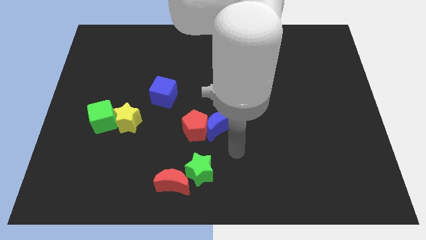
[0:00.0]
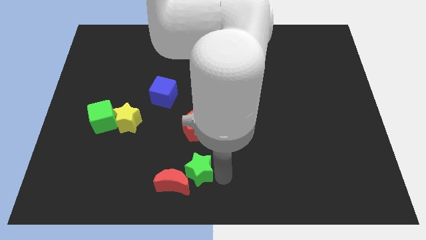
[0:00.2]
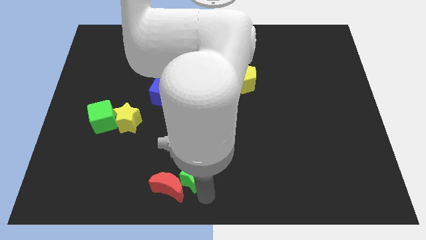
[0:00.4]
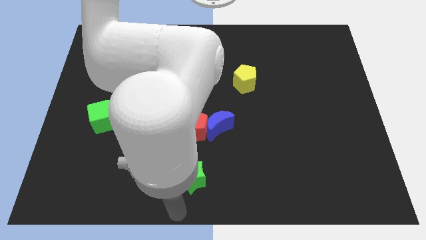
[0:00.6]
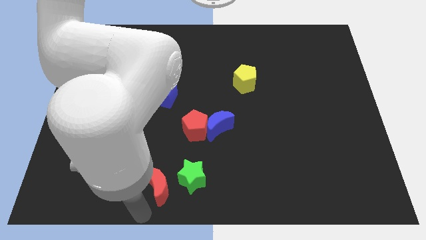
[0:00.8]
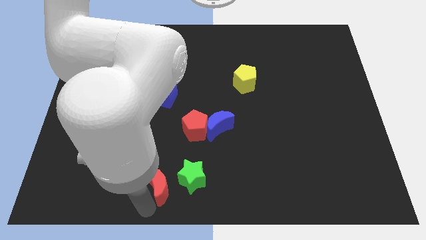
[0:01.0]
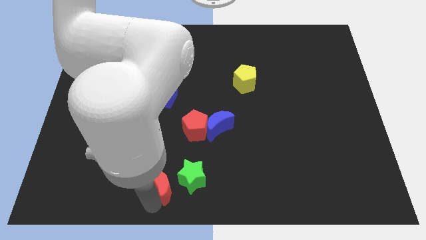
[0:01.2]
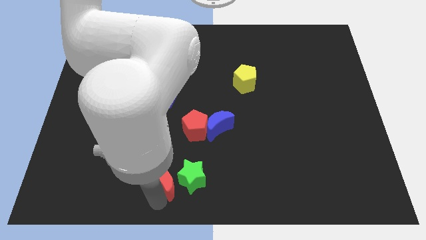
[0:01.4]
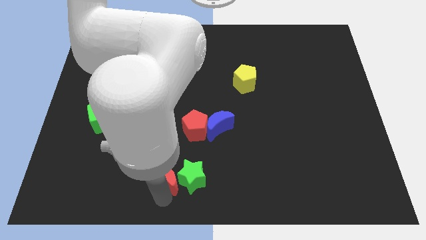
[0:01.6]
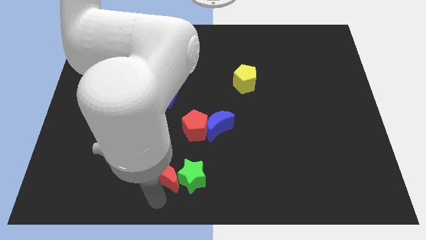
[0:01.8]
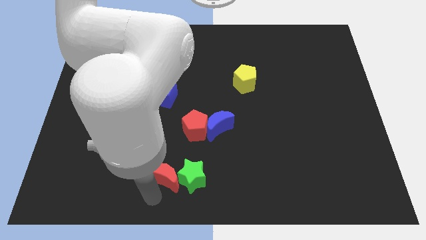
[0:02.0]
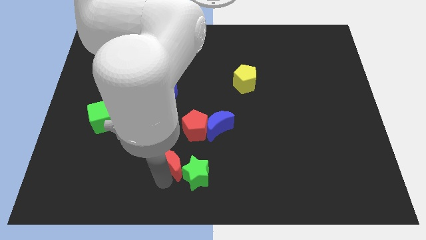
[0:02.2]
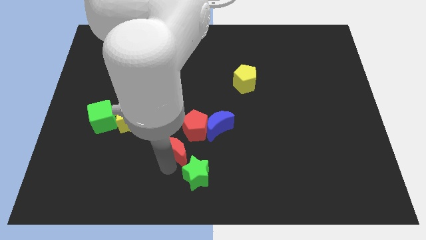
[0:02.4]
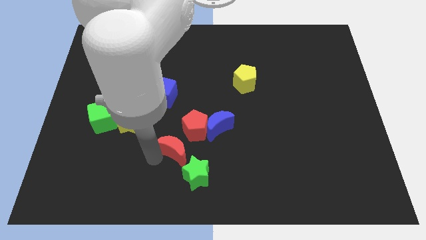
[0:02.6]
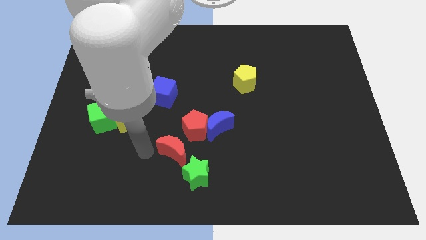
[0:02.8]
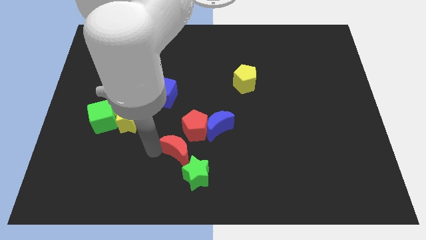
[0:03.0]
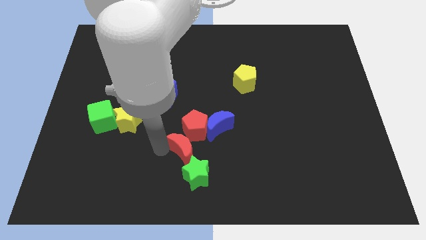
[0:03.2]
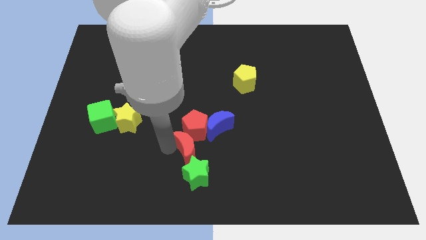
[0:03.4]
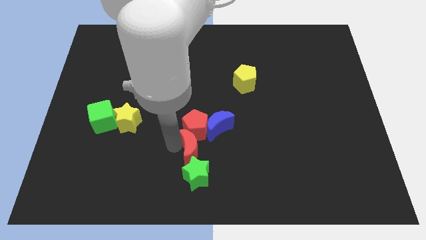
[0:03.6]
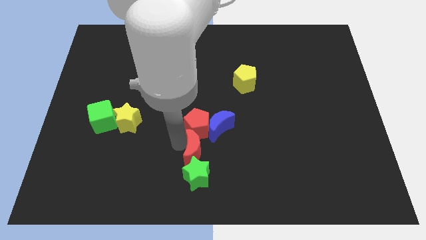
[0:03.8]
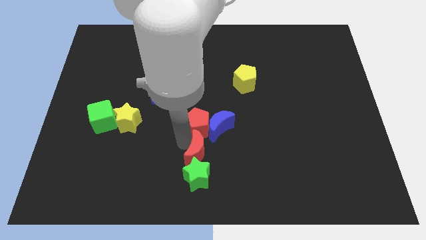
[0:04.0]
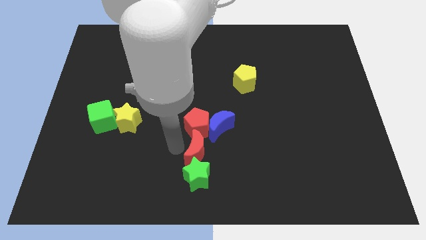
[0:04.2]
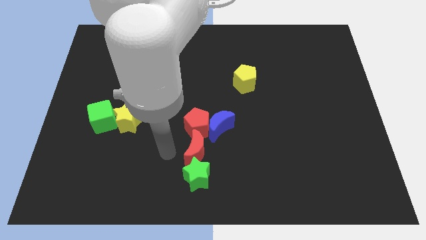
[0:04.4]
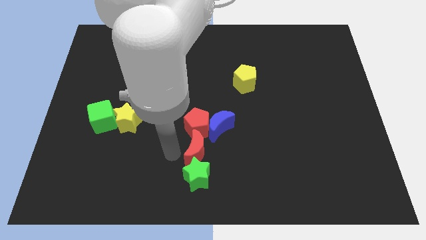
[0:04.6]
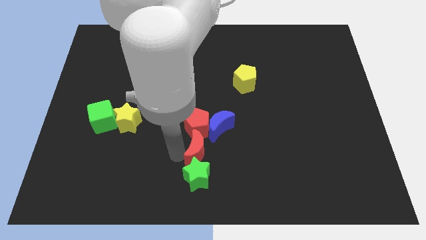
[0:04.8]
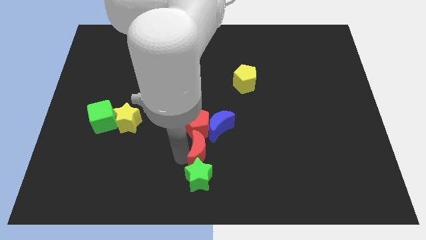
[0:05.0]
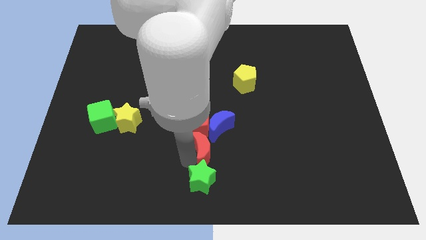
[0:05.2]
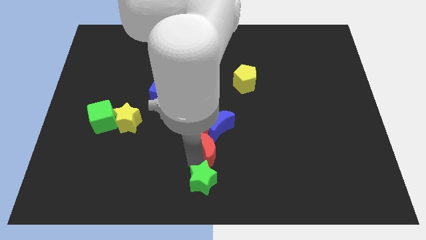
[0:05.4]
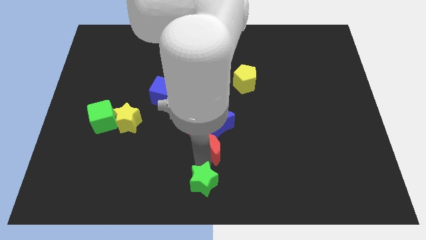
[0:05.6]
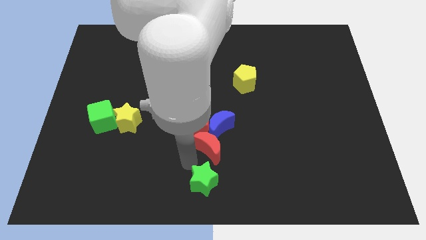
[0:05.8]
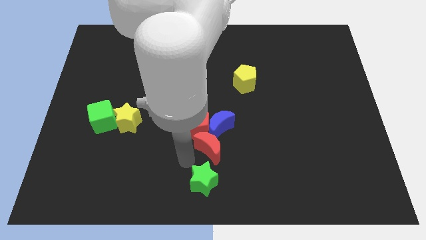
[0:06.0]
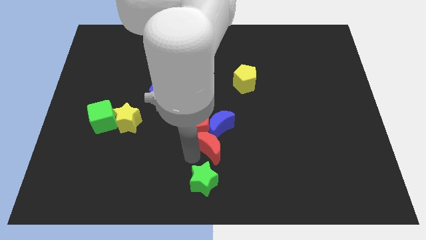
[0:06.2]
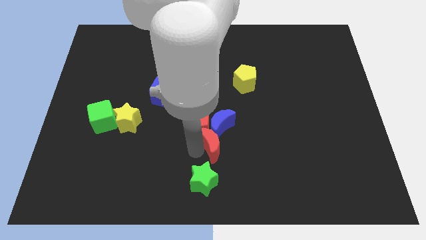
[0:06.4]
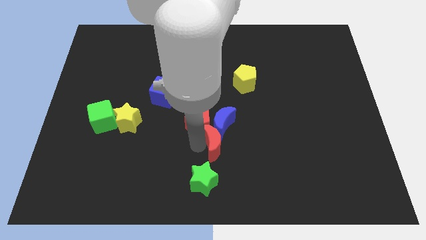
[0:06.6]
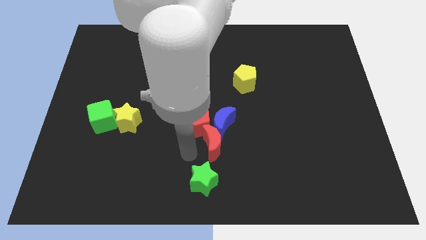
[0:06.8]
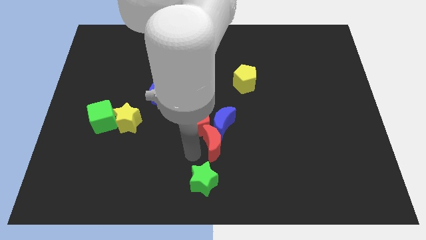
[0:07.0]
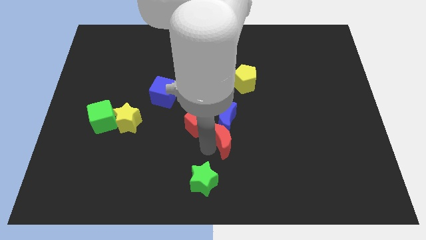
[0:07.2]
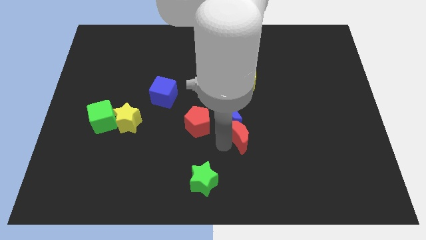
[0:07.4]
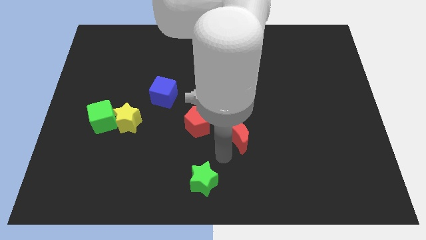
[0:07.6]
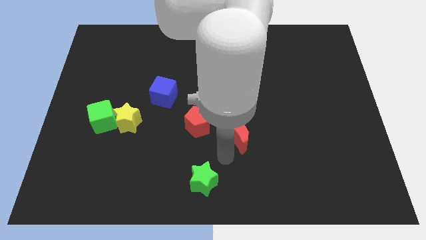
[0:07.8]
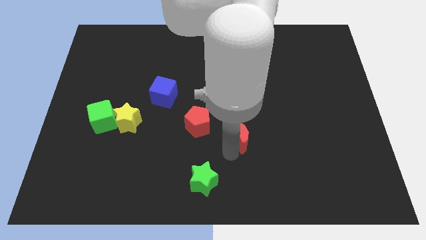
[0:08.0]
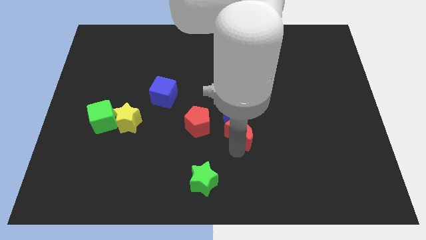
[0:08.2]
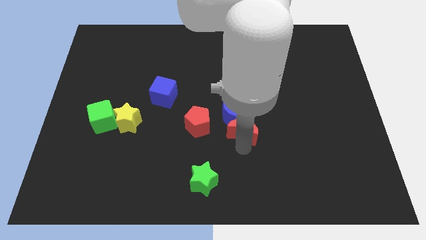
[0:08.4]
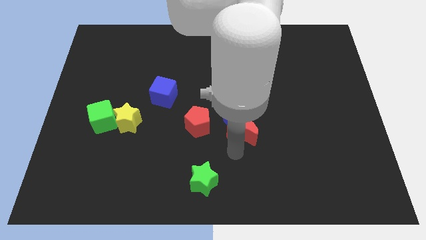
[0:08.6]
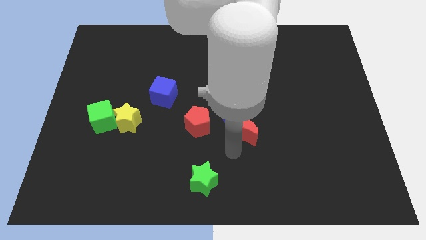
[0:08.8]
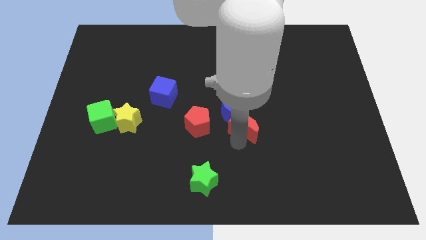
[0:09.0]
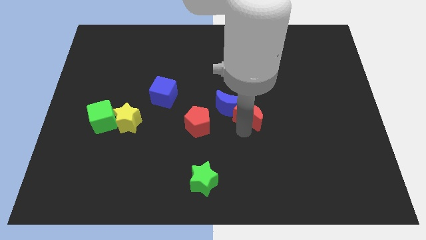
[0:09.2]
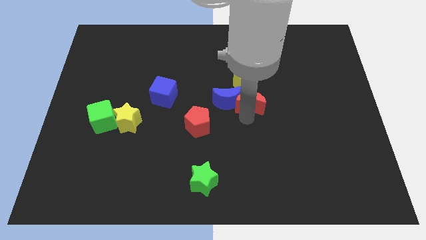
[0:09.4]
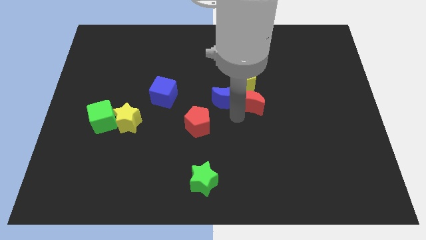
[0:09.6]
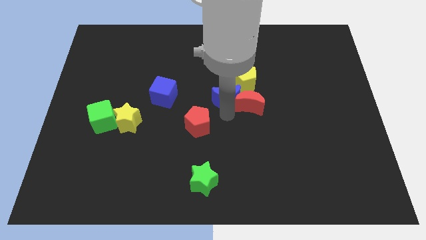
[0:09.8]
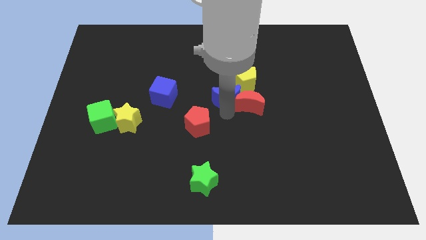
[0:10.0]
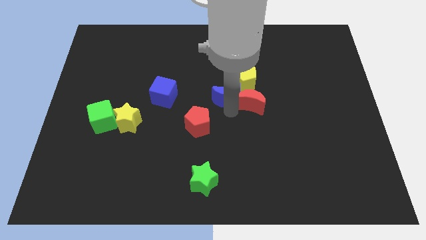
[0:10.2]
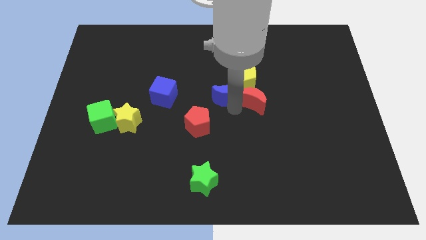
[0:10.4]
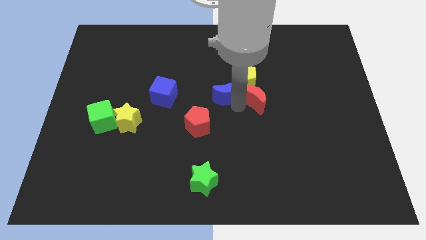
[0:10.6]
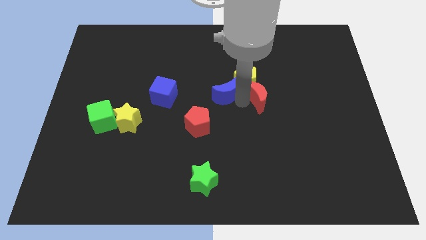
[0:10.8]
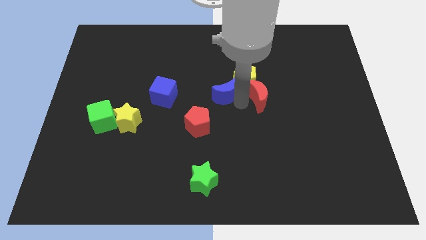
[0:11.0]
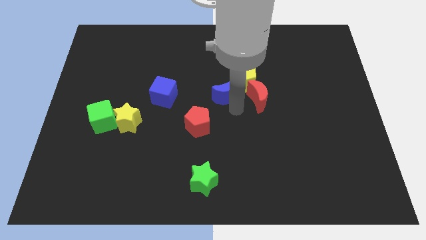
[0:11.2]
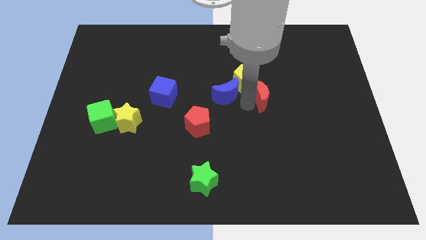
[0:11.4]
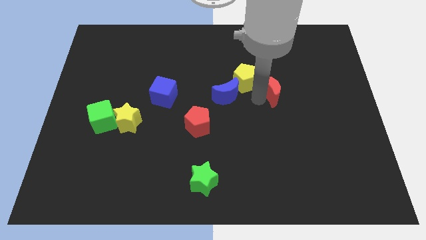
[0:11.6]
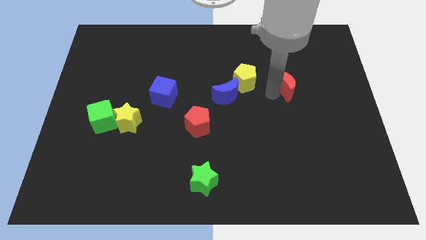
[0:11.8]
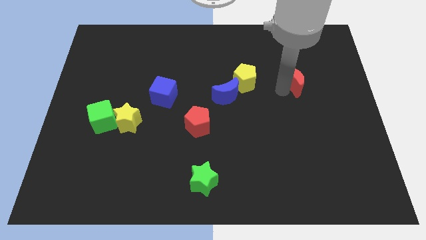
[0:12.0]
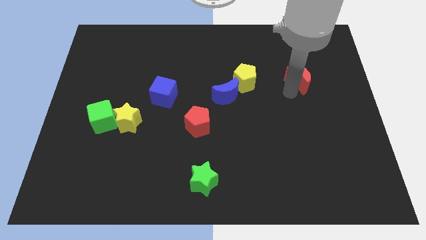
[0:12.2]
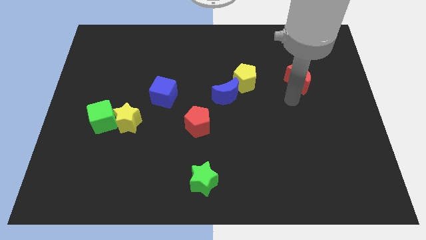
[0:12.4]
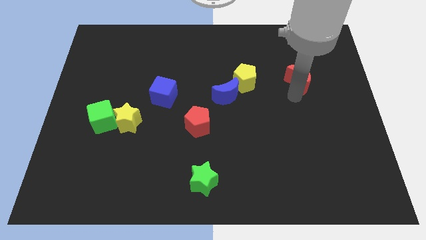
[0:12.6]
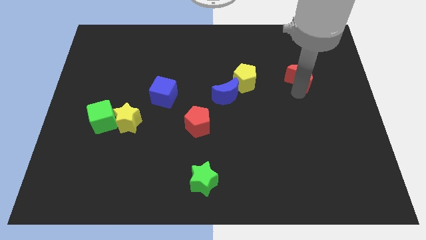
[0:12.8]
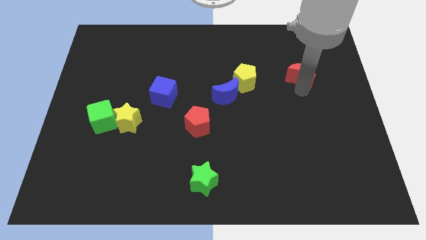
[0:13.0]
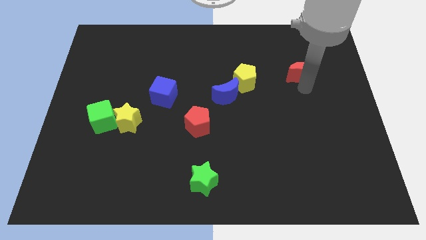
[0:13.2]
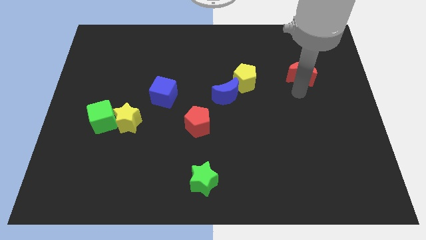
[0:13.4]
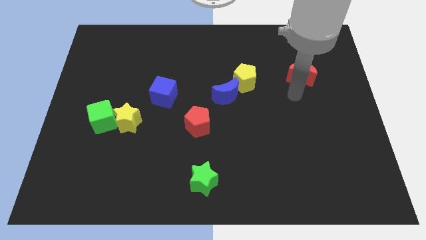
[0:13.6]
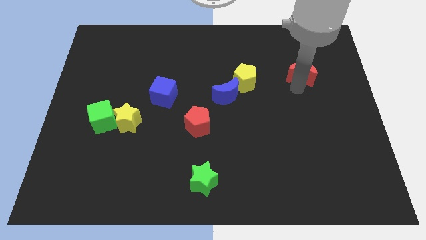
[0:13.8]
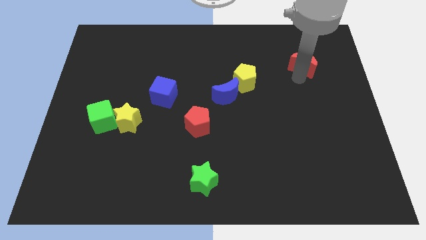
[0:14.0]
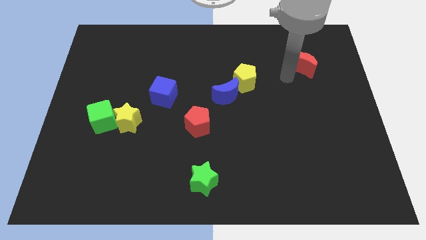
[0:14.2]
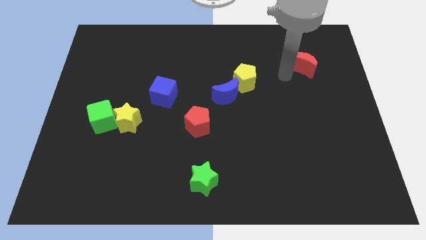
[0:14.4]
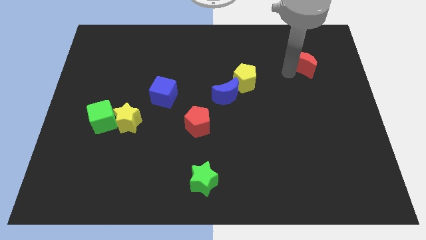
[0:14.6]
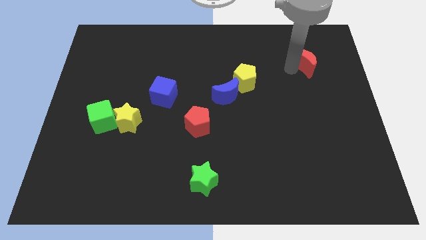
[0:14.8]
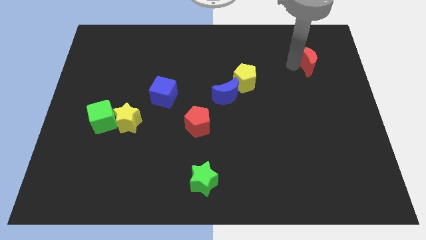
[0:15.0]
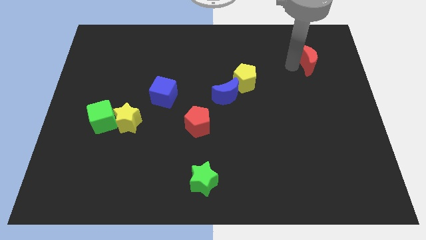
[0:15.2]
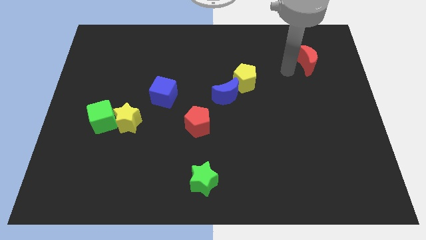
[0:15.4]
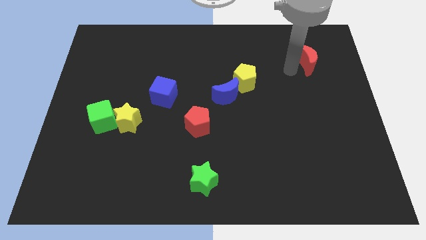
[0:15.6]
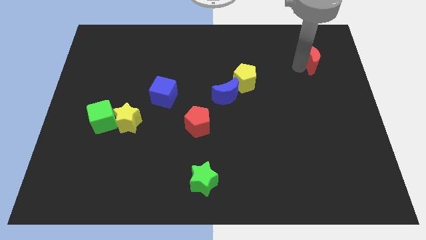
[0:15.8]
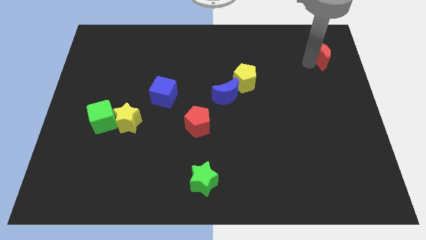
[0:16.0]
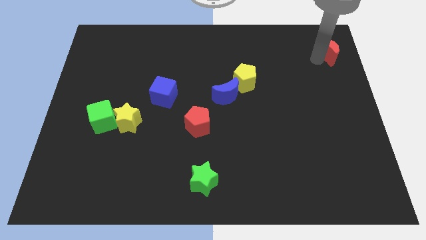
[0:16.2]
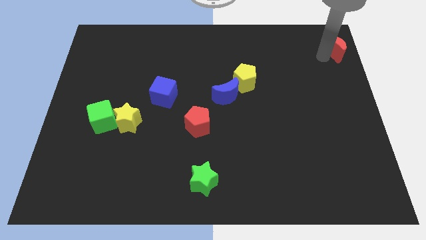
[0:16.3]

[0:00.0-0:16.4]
move the red moon to the upper right corner
